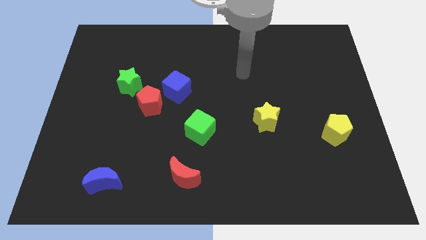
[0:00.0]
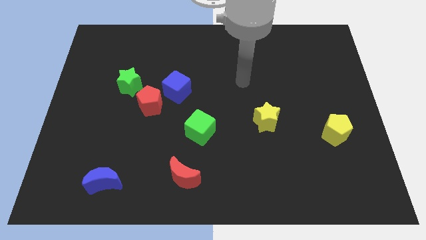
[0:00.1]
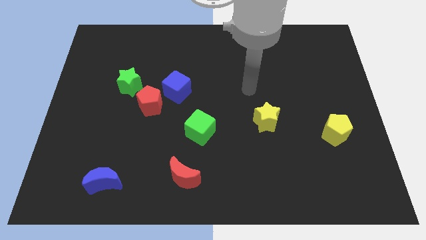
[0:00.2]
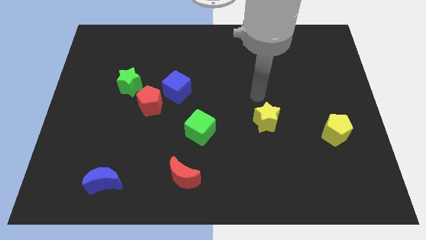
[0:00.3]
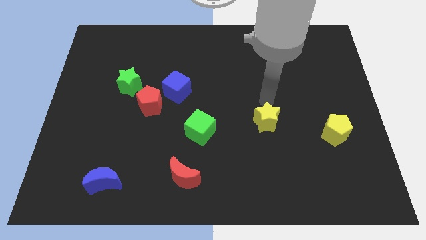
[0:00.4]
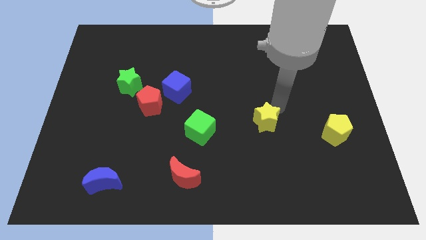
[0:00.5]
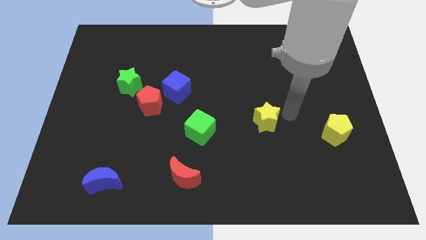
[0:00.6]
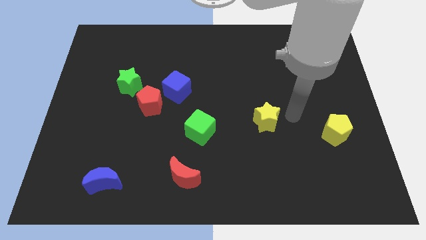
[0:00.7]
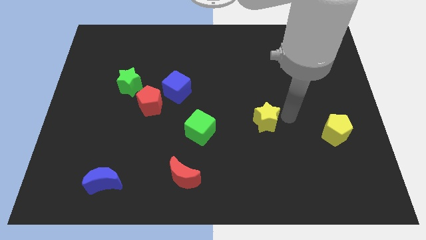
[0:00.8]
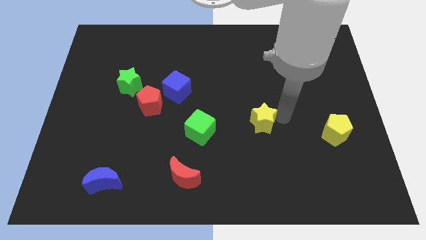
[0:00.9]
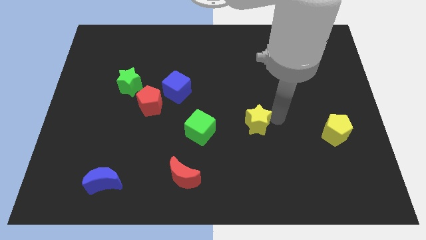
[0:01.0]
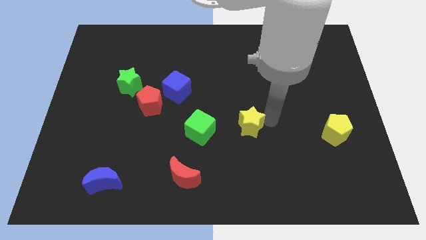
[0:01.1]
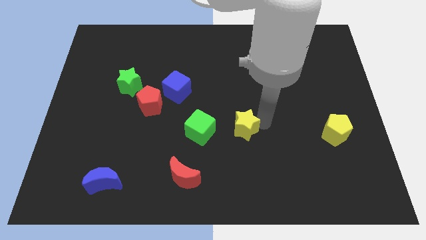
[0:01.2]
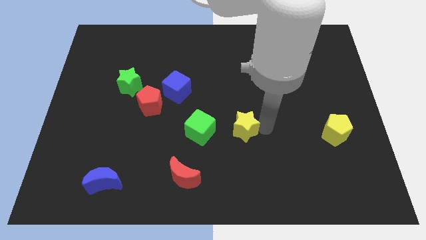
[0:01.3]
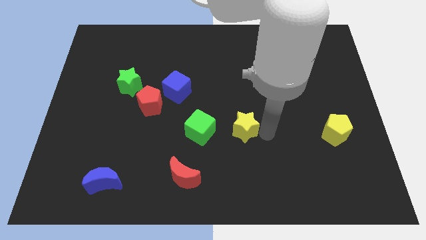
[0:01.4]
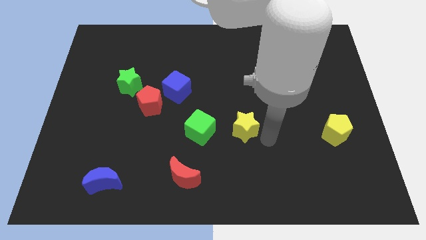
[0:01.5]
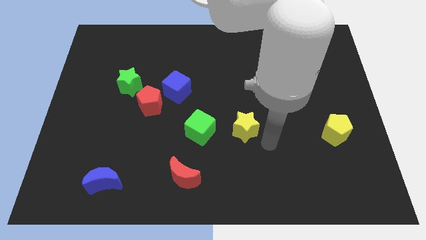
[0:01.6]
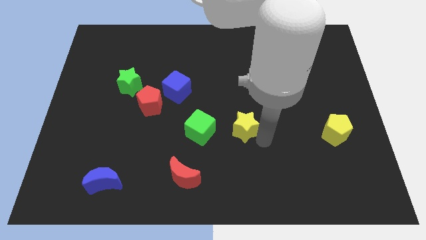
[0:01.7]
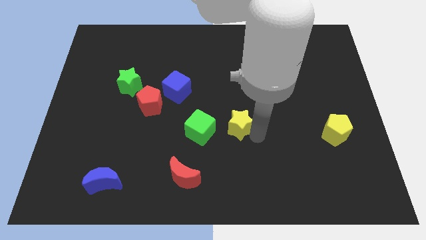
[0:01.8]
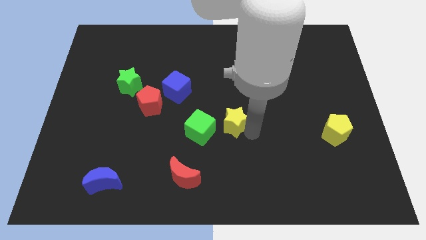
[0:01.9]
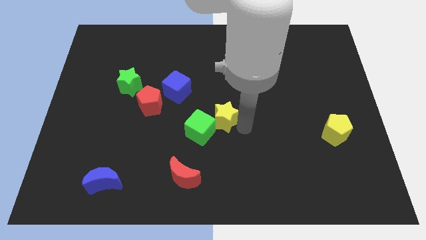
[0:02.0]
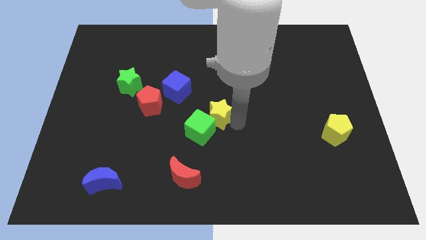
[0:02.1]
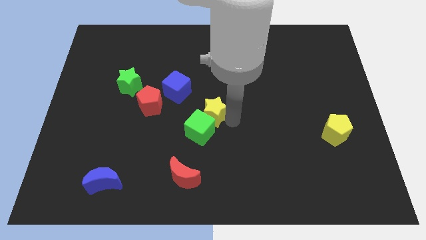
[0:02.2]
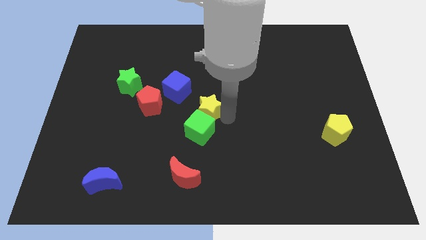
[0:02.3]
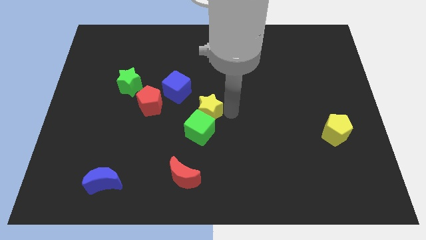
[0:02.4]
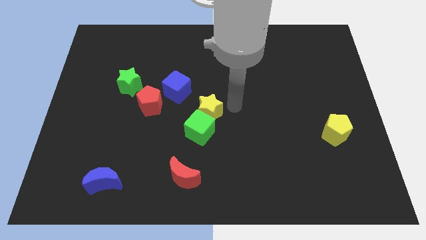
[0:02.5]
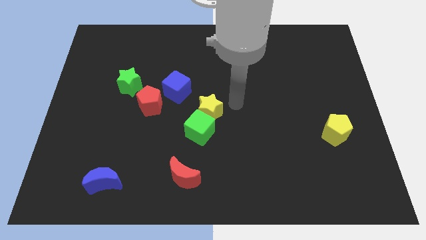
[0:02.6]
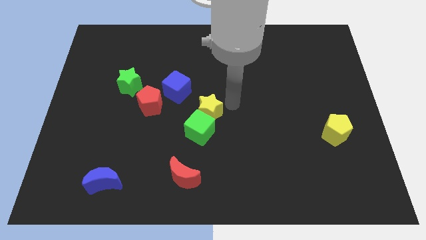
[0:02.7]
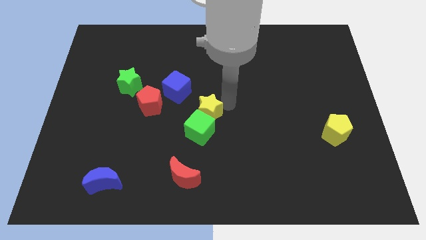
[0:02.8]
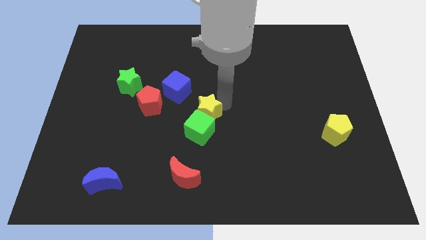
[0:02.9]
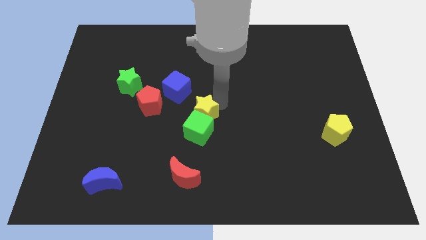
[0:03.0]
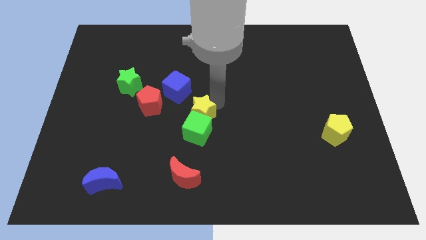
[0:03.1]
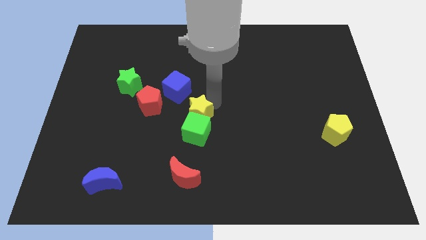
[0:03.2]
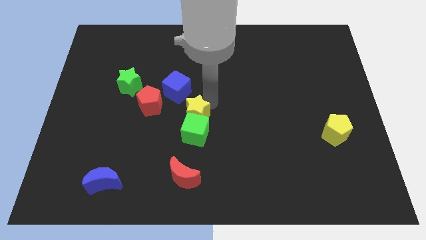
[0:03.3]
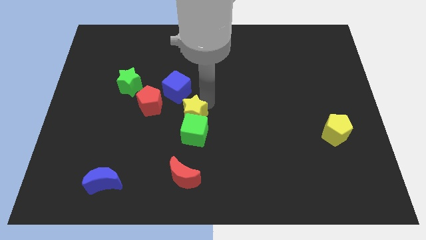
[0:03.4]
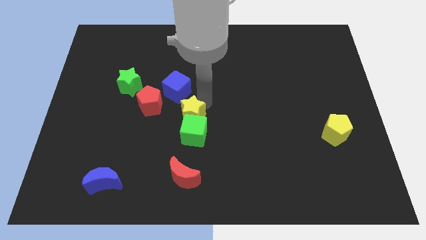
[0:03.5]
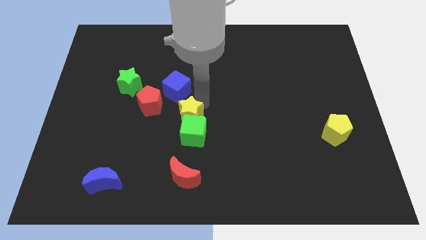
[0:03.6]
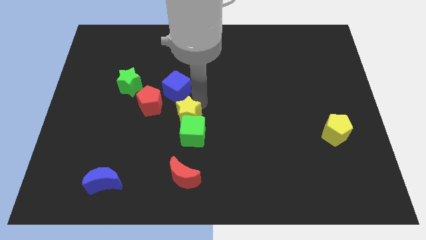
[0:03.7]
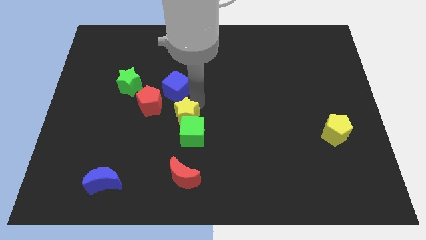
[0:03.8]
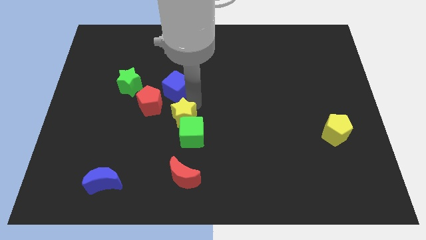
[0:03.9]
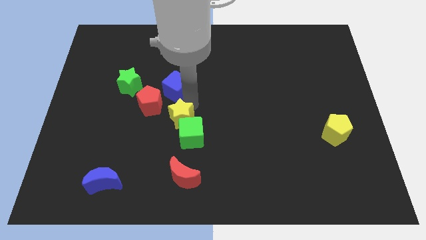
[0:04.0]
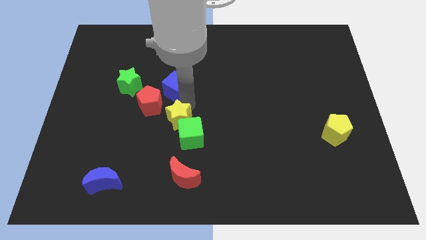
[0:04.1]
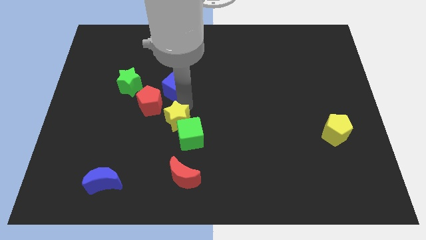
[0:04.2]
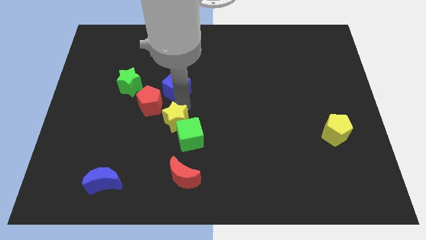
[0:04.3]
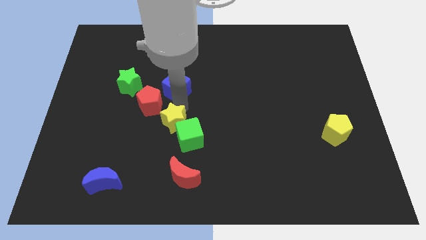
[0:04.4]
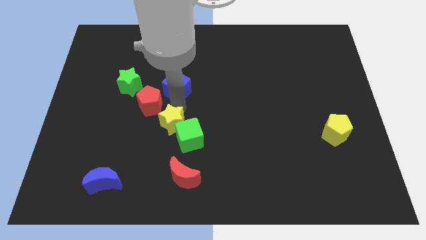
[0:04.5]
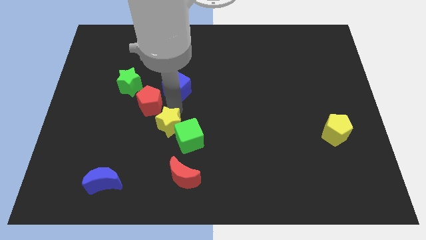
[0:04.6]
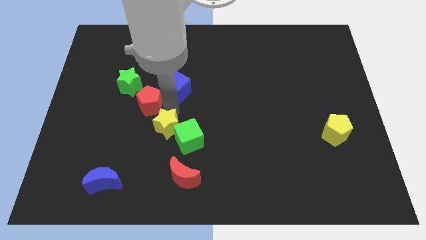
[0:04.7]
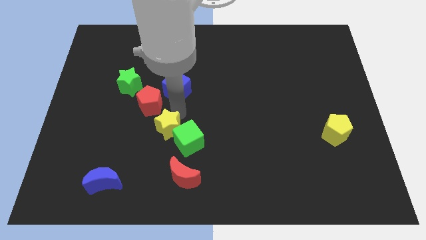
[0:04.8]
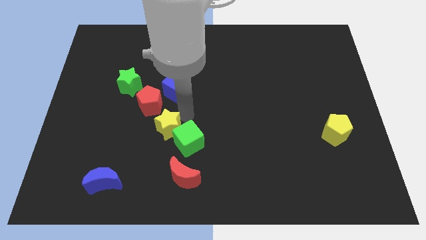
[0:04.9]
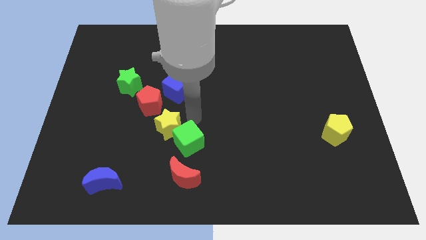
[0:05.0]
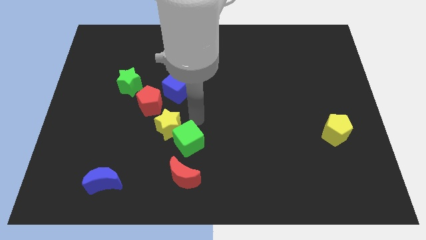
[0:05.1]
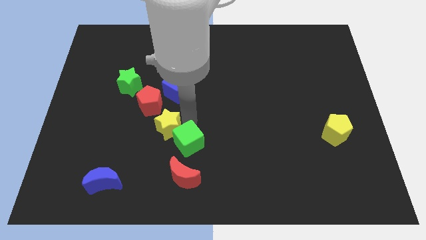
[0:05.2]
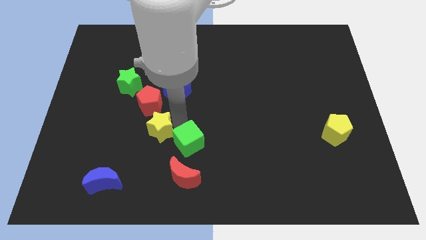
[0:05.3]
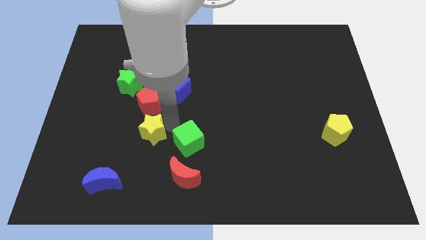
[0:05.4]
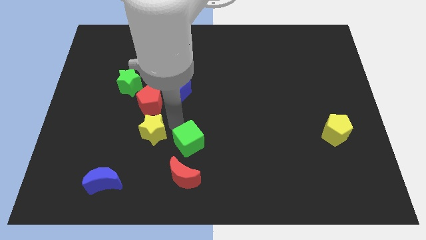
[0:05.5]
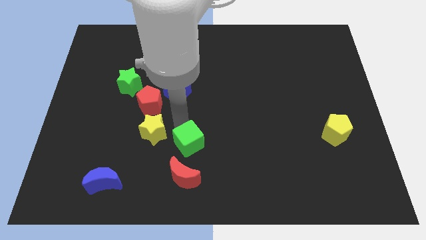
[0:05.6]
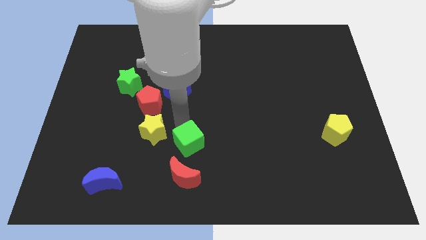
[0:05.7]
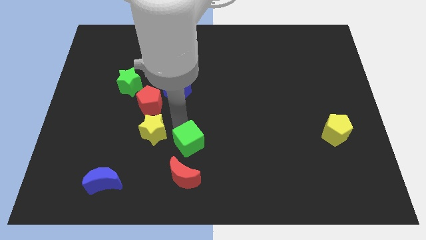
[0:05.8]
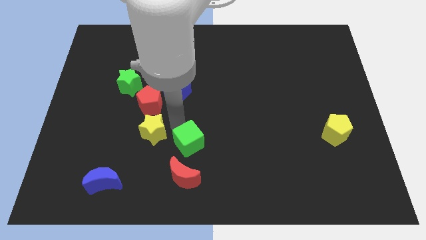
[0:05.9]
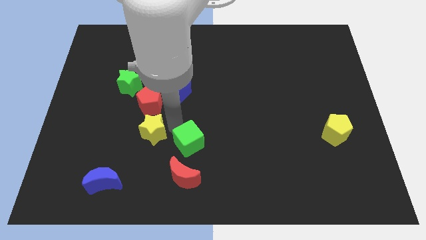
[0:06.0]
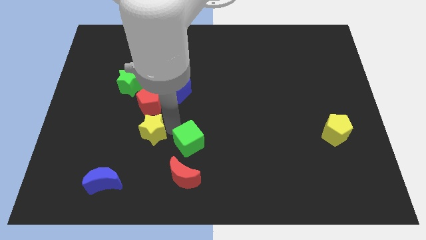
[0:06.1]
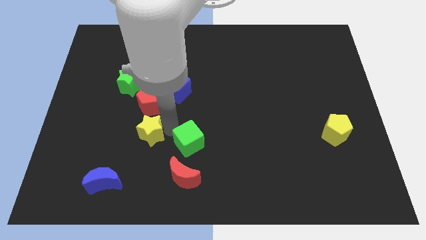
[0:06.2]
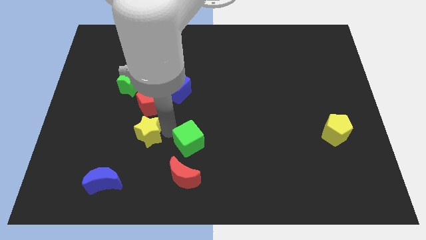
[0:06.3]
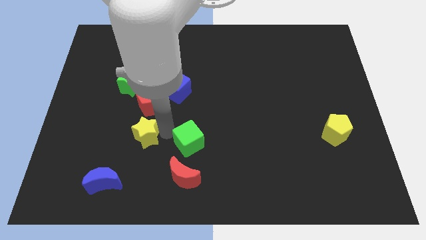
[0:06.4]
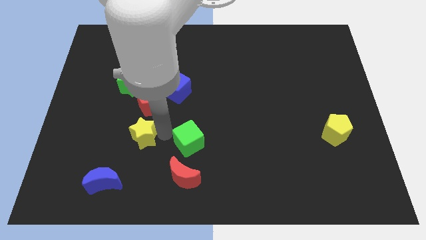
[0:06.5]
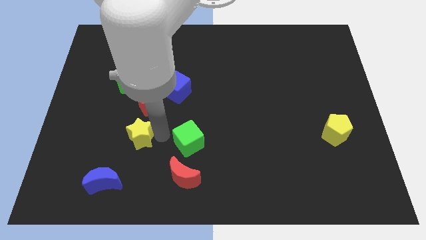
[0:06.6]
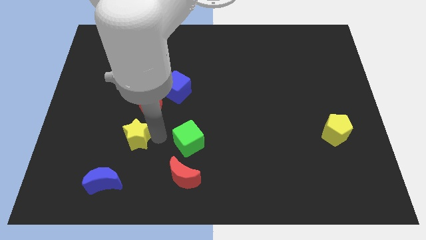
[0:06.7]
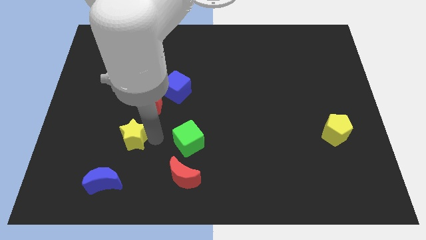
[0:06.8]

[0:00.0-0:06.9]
move the yellow star to the top side of the blue moon

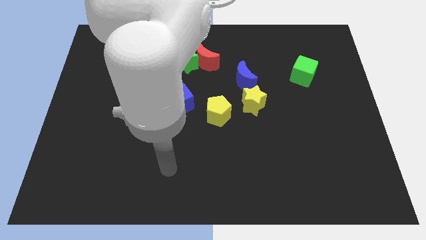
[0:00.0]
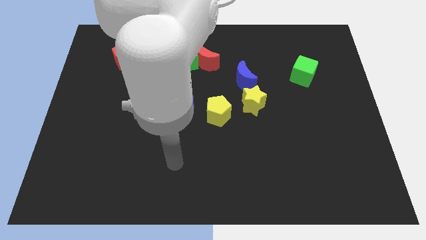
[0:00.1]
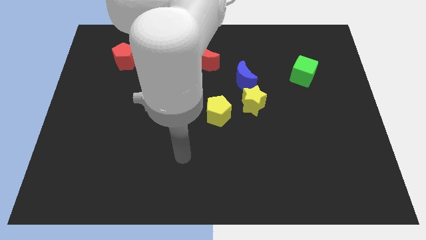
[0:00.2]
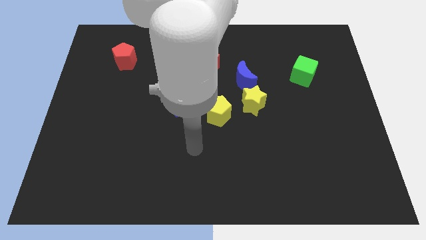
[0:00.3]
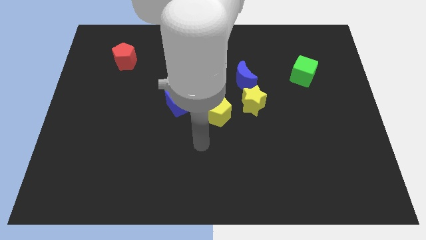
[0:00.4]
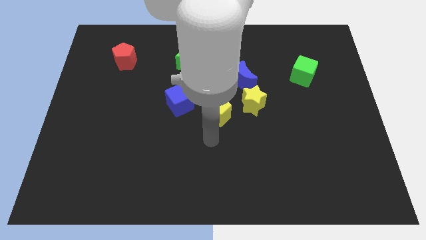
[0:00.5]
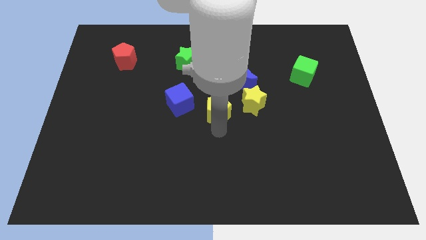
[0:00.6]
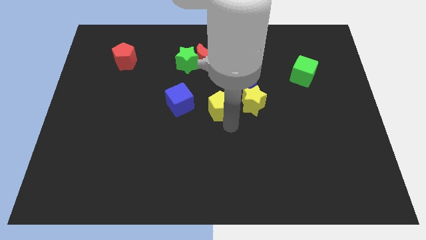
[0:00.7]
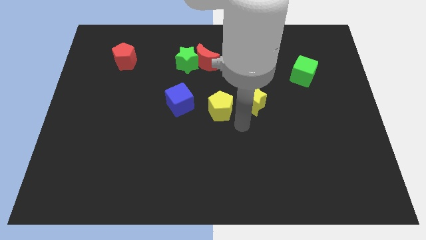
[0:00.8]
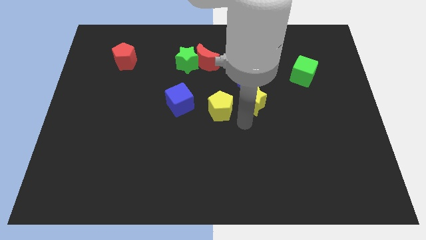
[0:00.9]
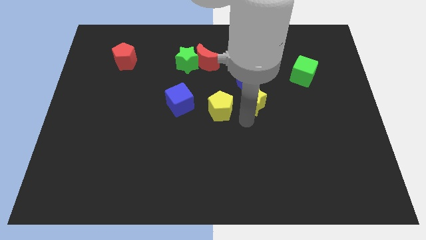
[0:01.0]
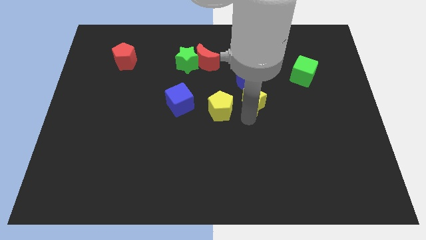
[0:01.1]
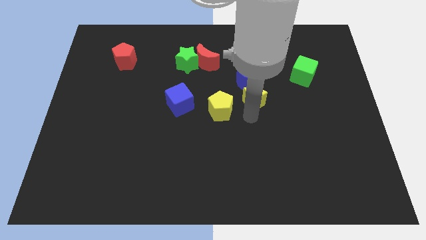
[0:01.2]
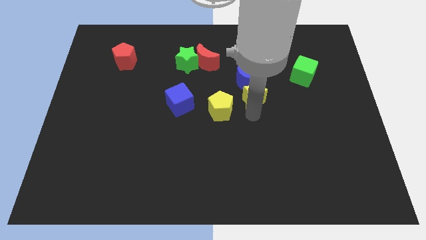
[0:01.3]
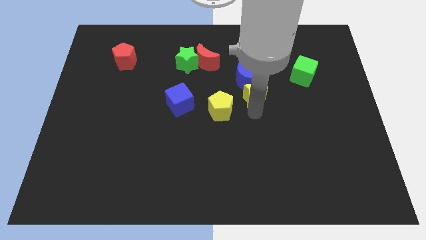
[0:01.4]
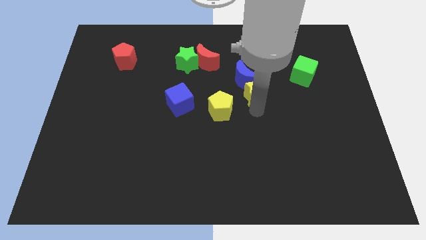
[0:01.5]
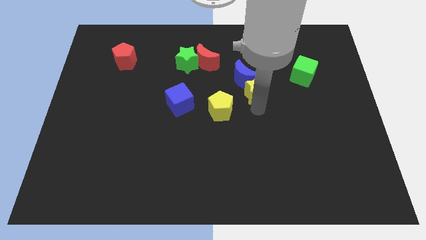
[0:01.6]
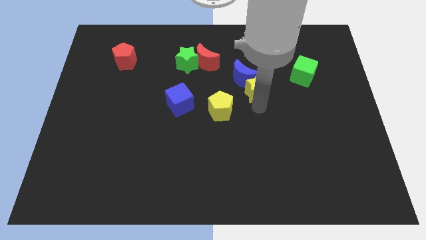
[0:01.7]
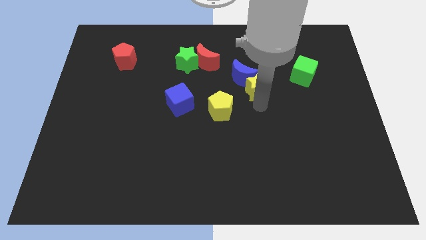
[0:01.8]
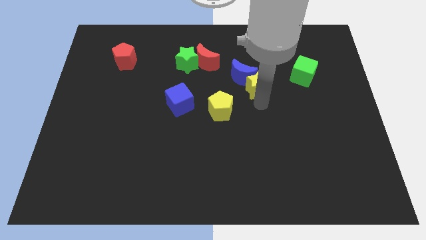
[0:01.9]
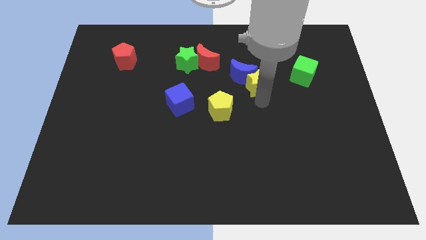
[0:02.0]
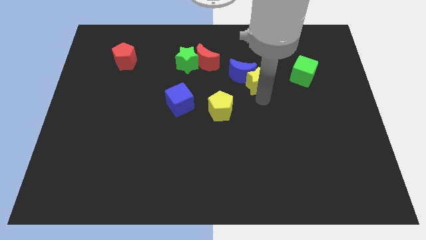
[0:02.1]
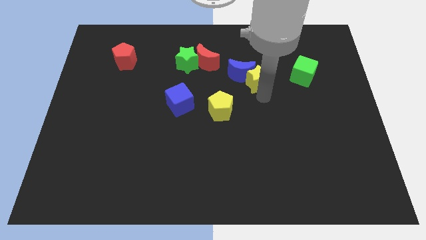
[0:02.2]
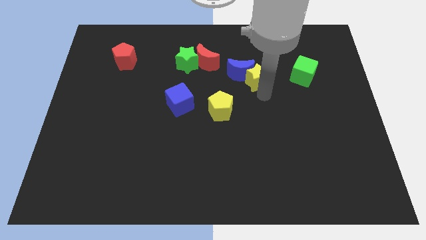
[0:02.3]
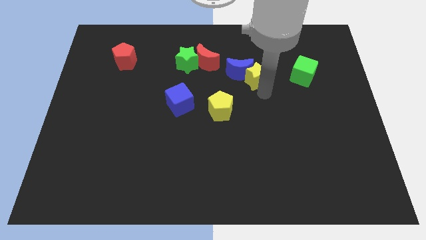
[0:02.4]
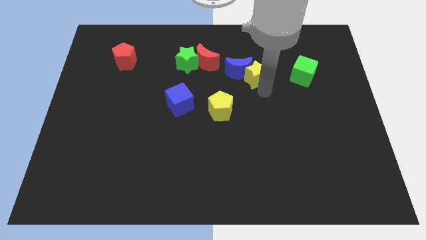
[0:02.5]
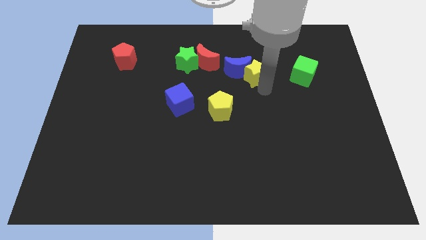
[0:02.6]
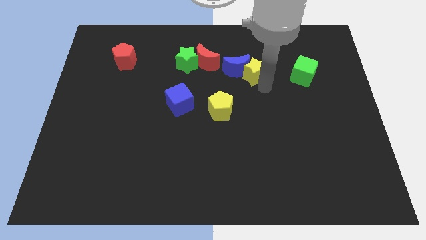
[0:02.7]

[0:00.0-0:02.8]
move the yellow star to the right of the red moon
